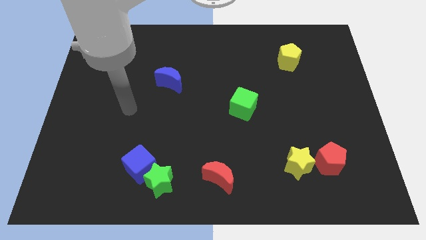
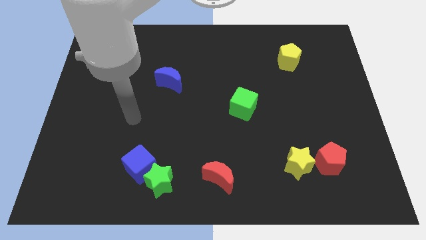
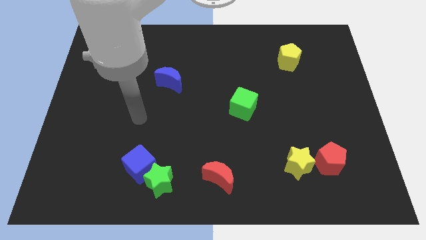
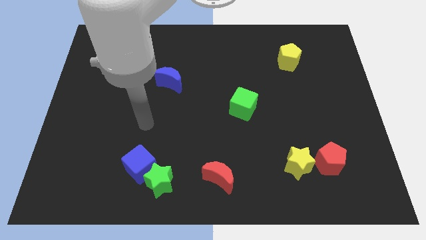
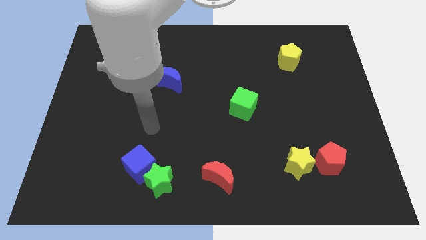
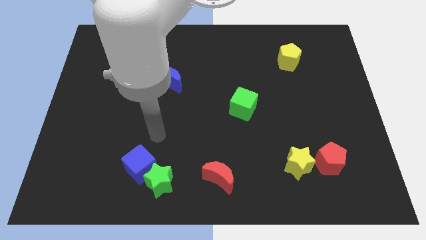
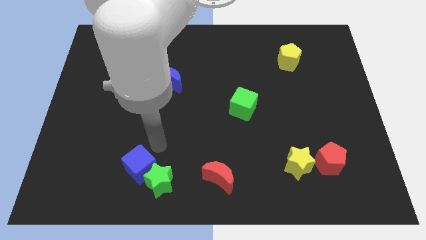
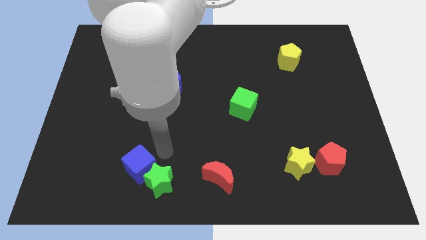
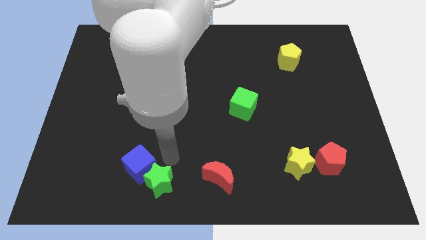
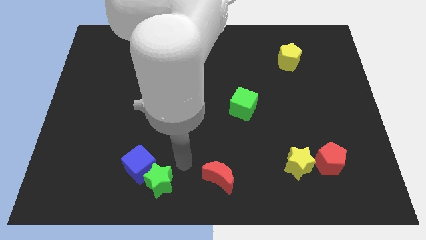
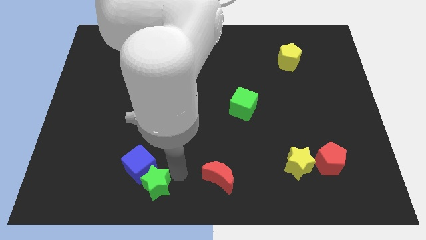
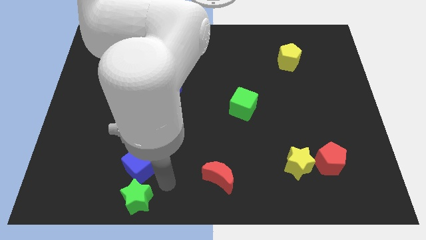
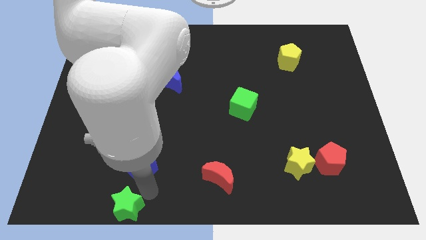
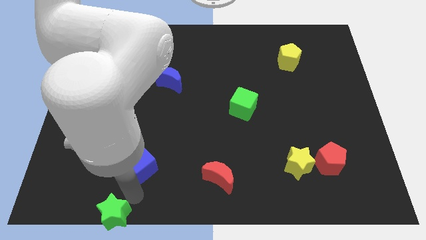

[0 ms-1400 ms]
move the blue cube away from the green star

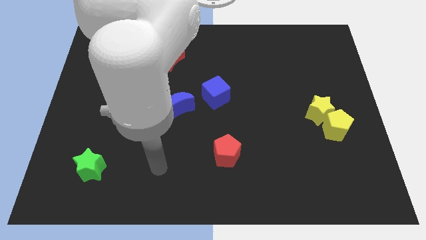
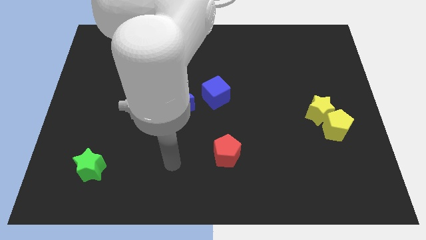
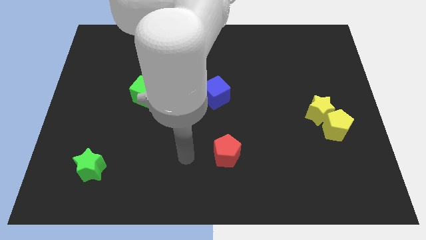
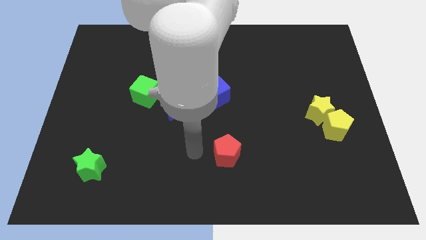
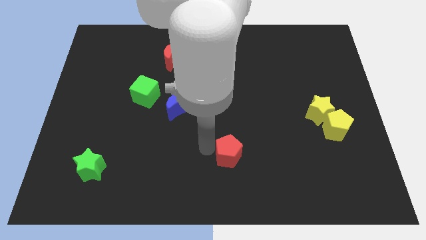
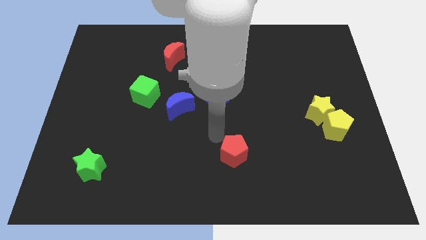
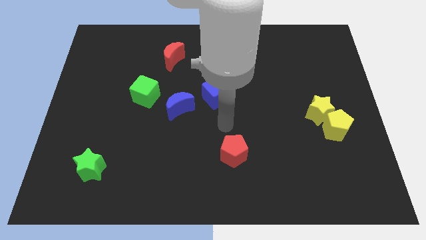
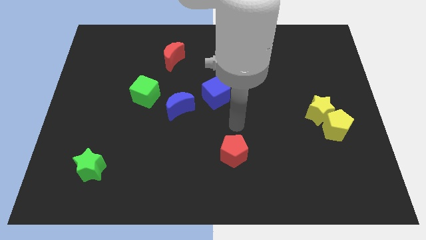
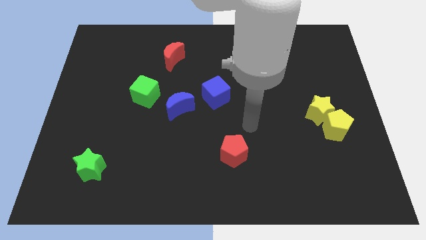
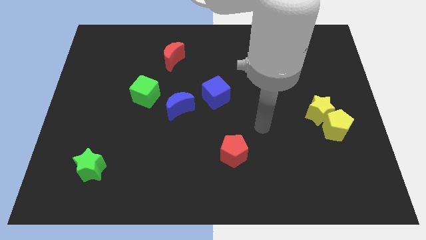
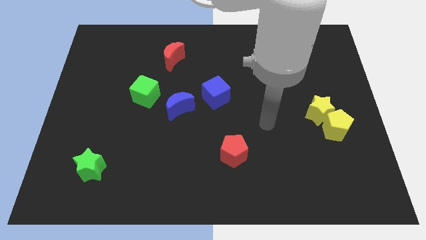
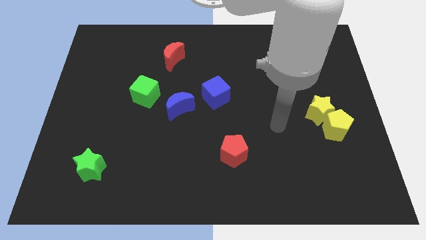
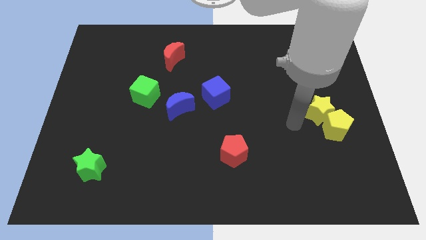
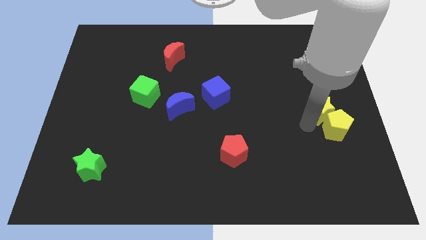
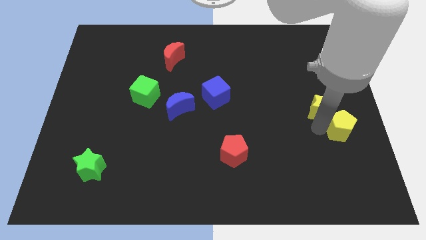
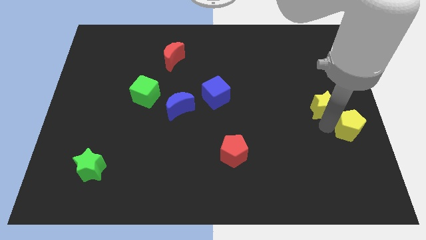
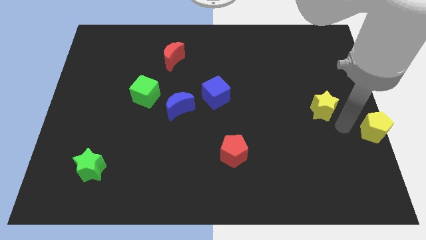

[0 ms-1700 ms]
move the yellow star away from the yellow pentagon

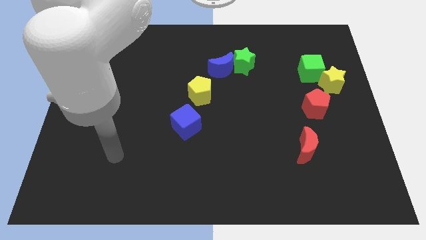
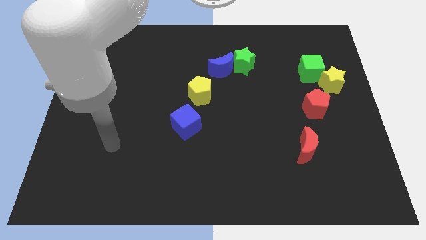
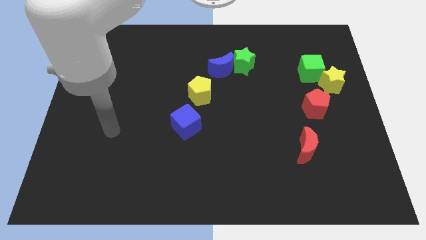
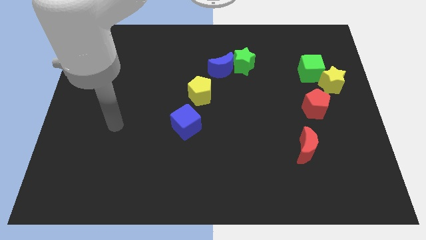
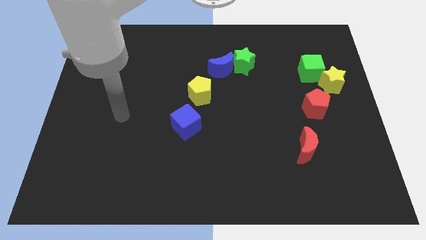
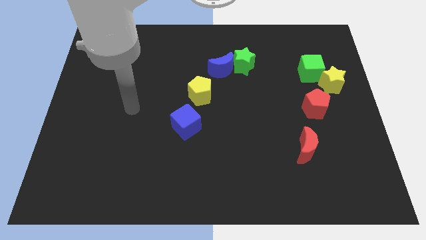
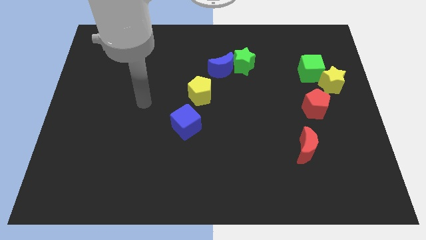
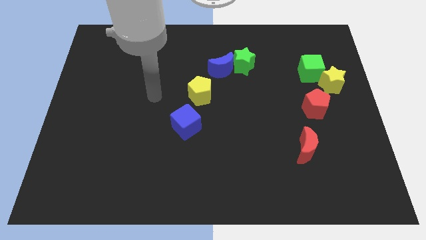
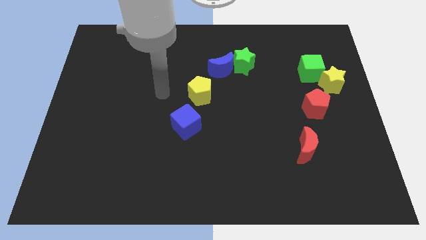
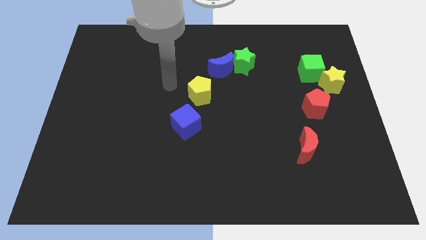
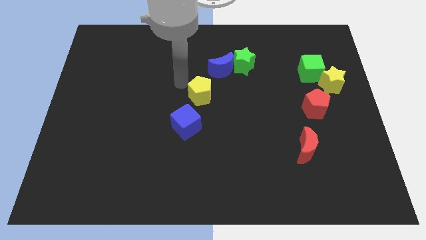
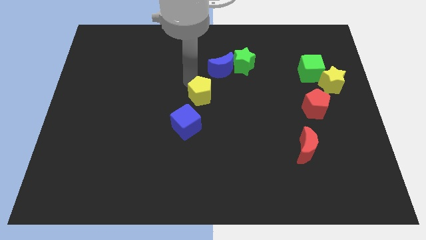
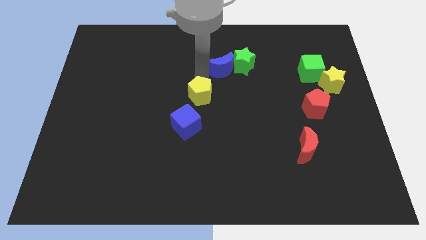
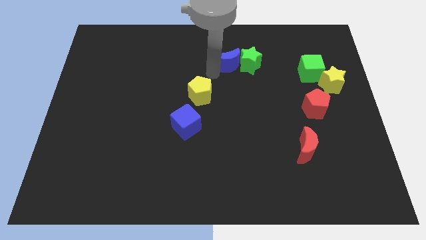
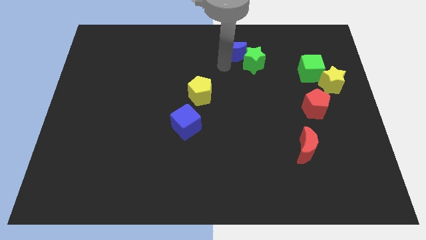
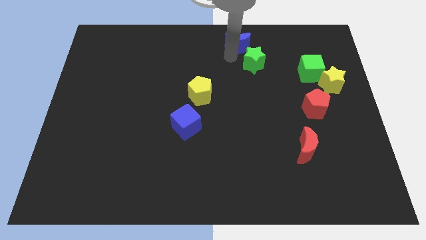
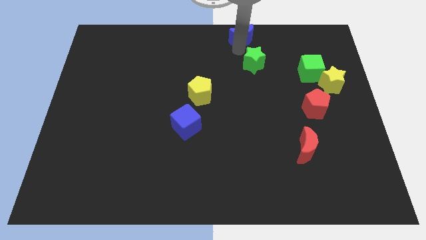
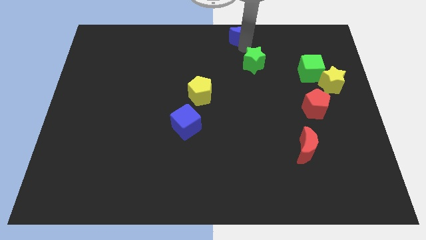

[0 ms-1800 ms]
separate the green star from the blue moon

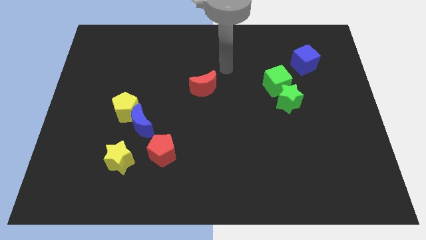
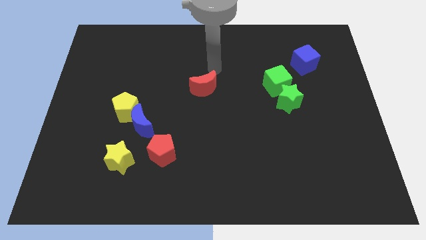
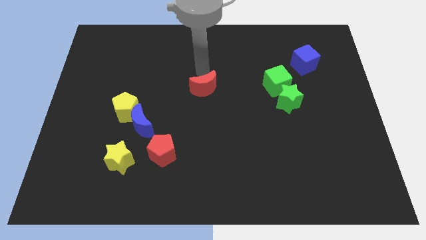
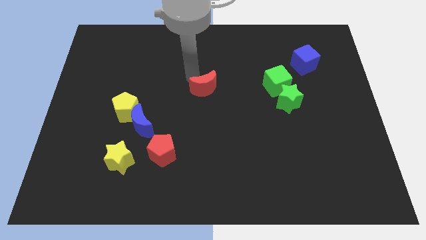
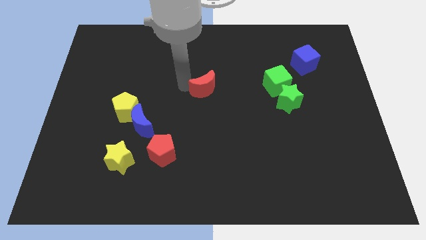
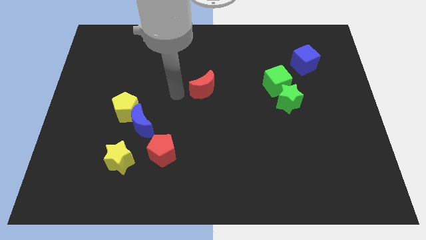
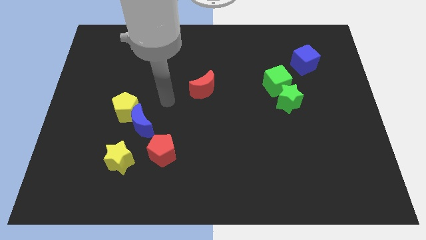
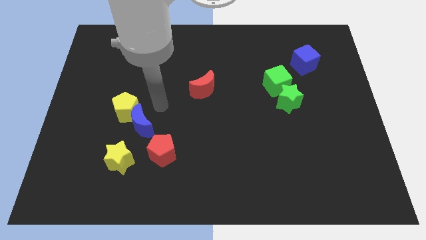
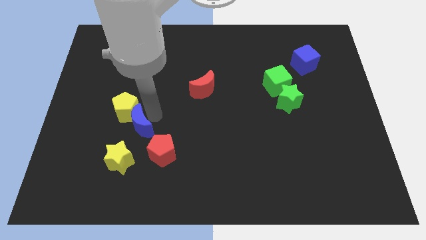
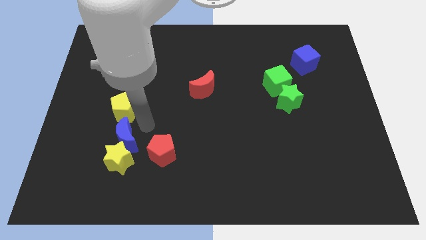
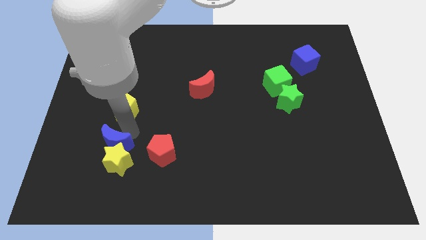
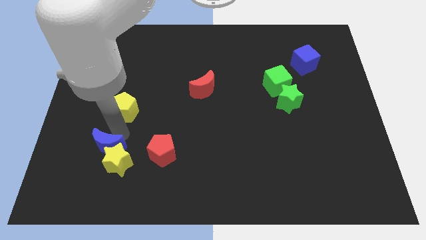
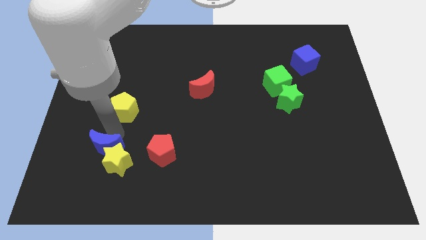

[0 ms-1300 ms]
pull the yellow pentagon apart from the blue moon

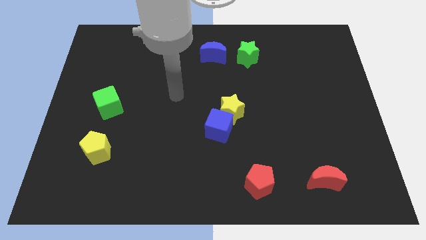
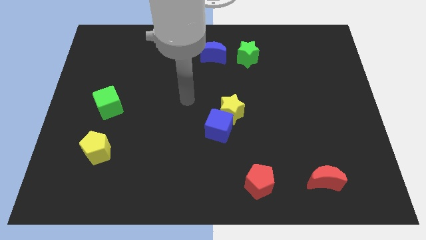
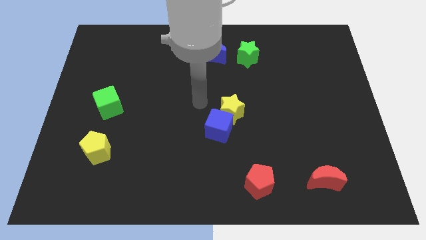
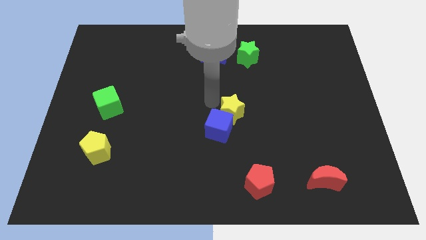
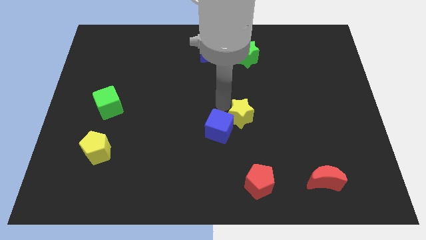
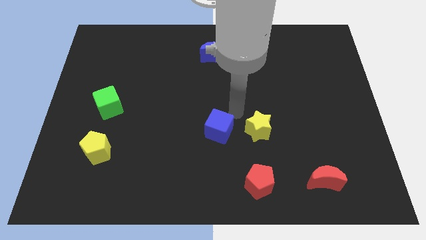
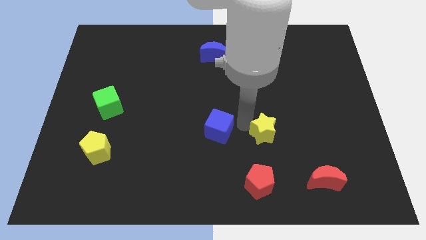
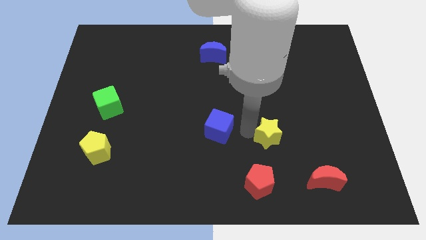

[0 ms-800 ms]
pull the blue cube apart from the yellow star

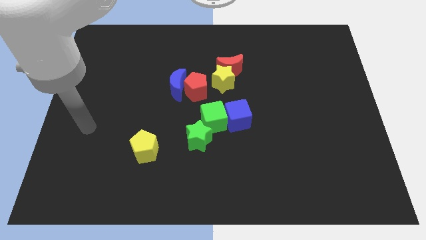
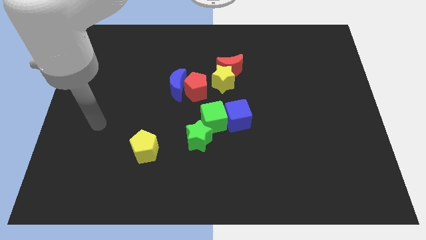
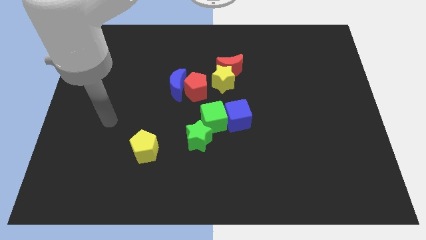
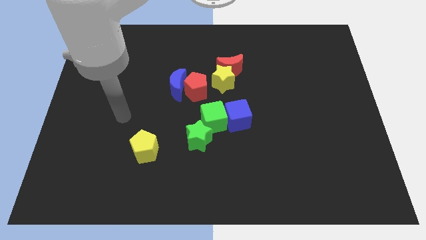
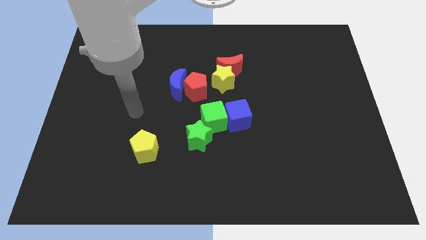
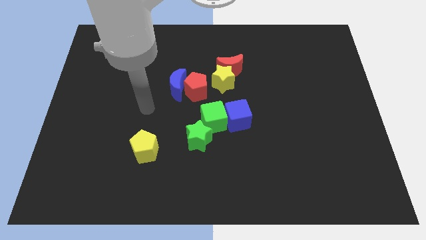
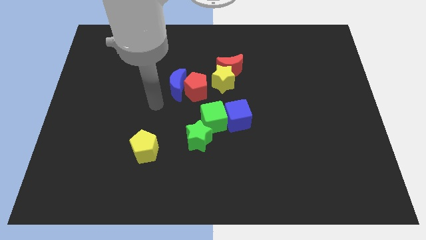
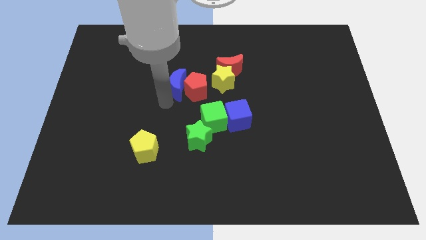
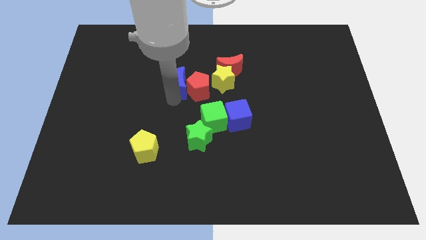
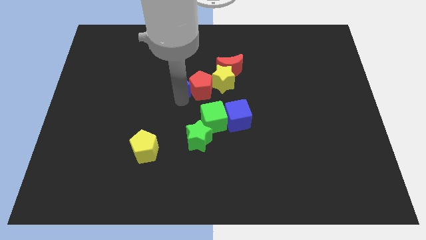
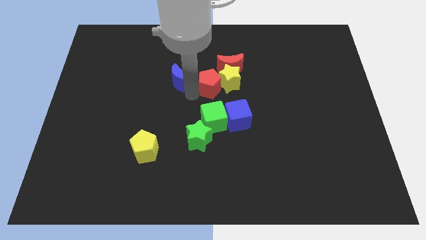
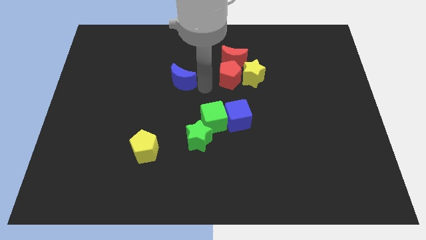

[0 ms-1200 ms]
pull the blue moon apart from the red pentagon

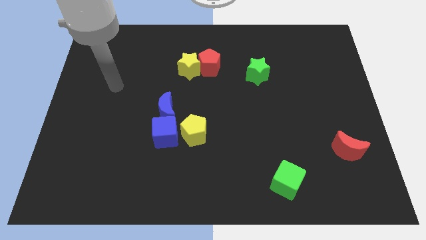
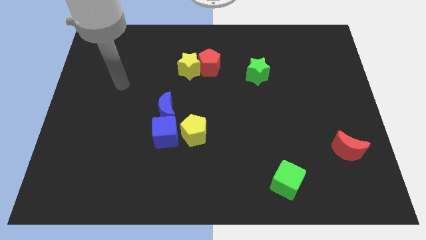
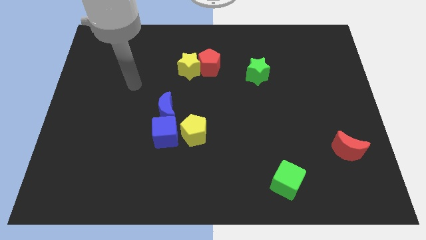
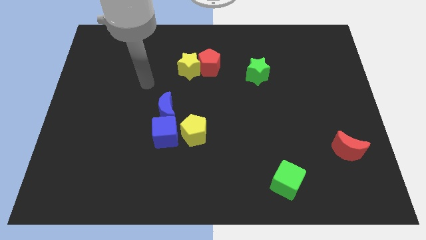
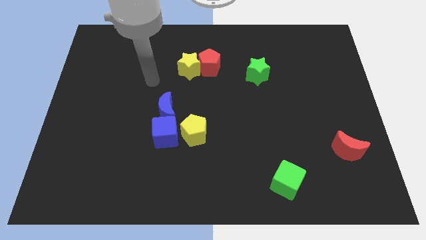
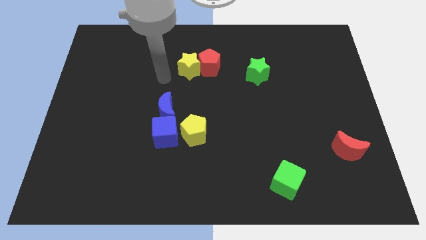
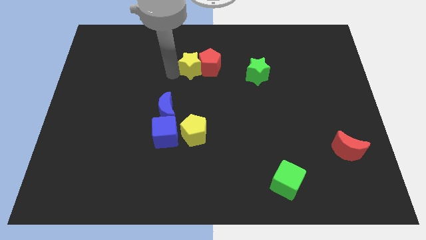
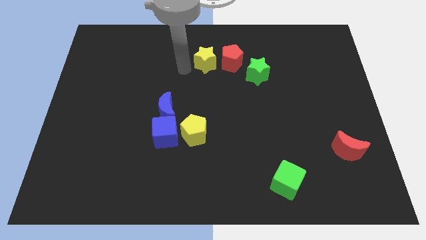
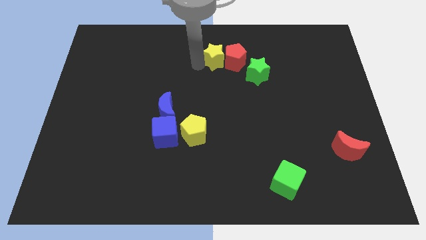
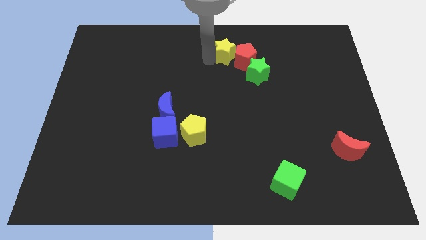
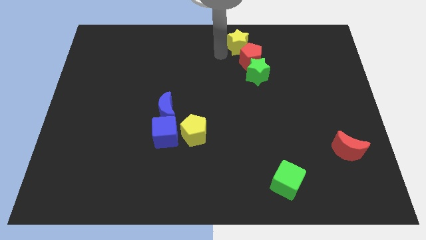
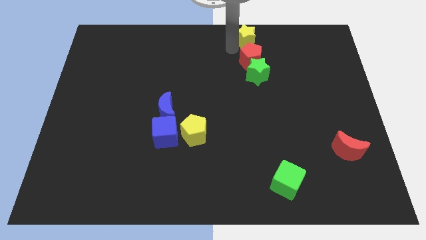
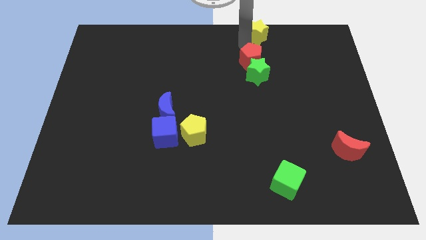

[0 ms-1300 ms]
separate the red pentagon from the yellow star

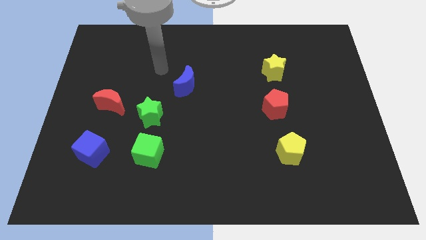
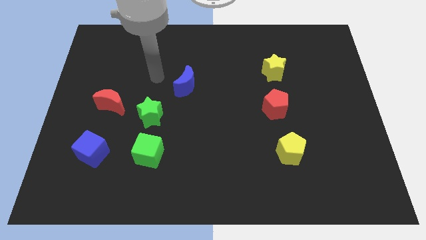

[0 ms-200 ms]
separate the red moon from the green star
